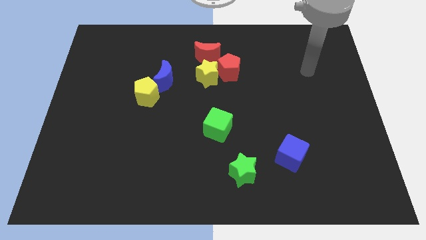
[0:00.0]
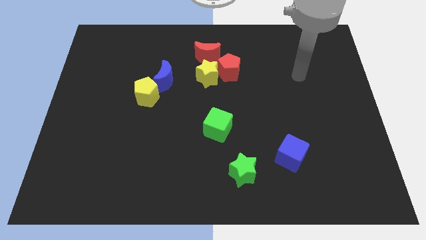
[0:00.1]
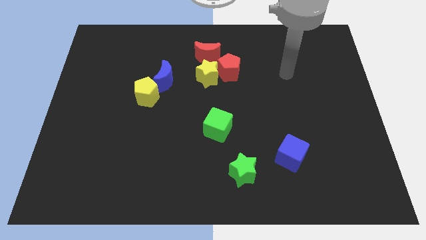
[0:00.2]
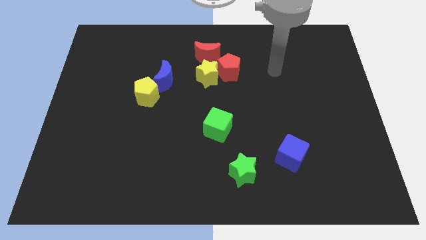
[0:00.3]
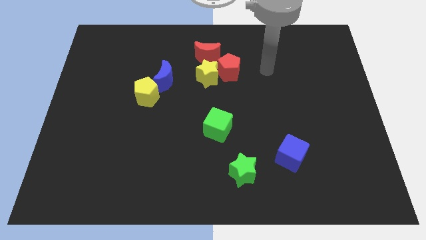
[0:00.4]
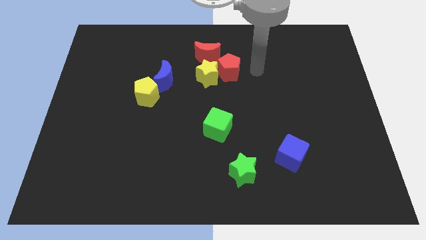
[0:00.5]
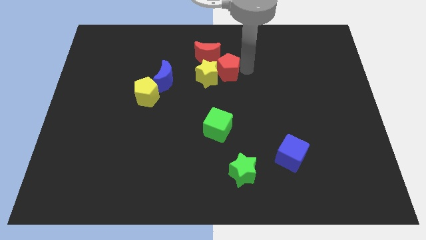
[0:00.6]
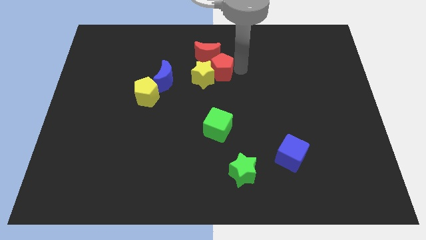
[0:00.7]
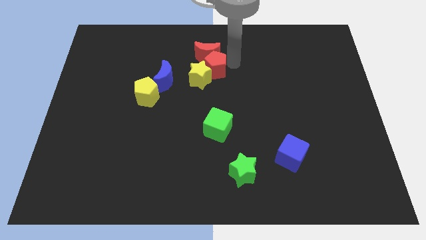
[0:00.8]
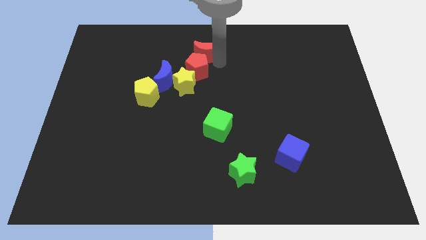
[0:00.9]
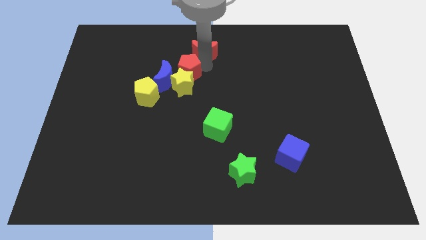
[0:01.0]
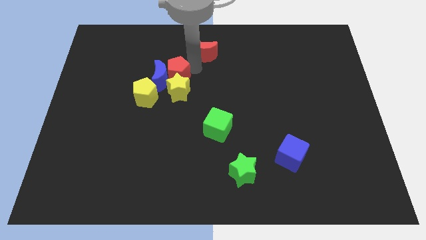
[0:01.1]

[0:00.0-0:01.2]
separate the yellow star from the red pentagon and red moon

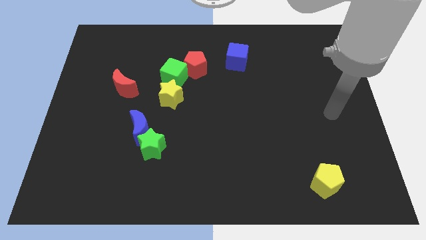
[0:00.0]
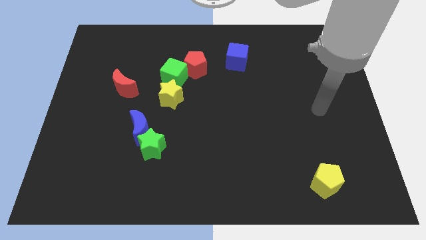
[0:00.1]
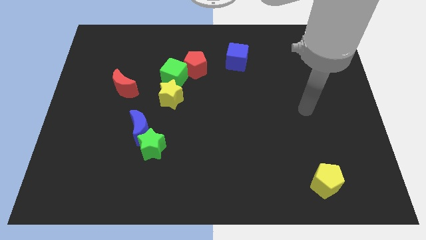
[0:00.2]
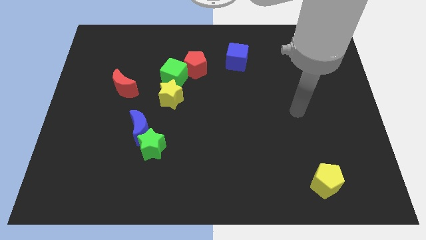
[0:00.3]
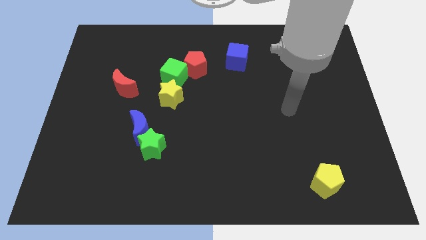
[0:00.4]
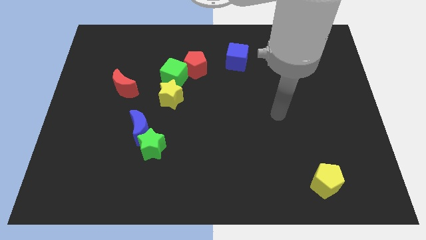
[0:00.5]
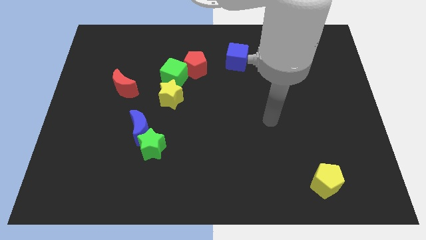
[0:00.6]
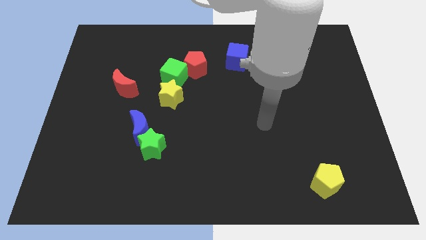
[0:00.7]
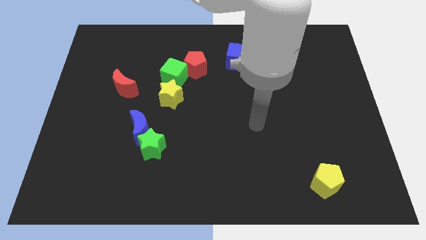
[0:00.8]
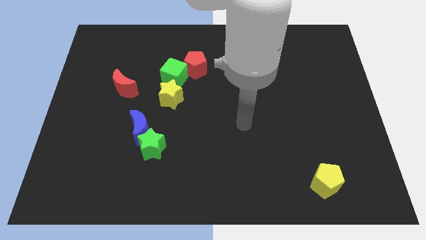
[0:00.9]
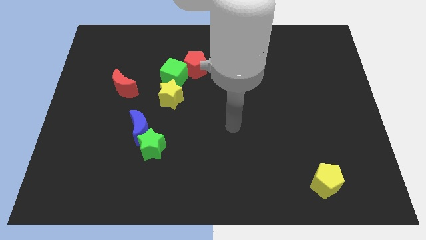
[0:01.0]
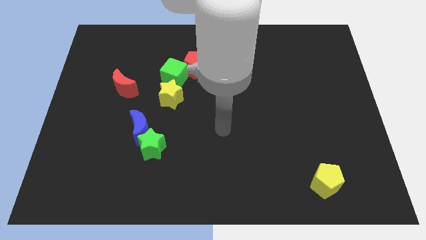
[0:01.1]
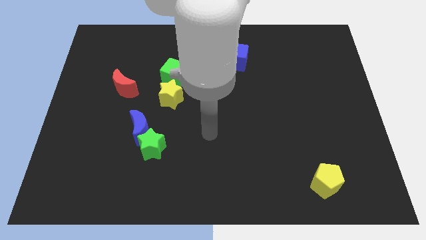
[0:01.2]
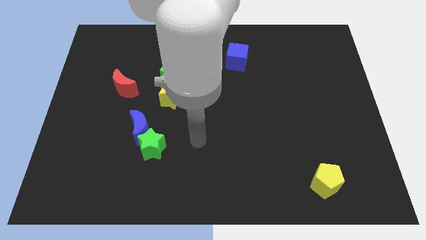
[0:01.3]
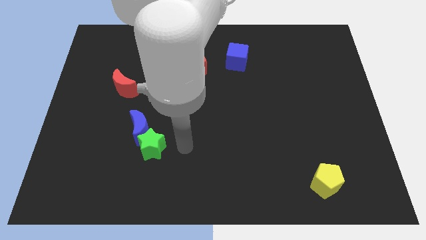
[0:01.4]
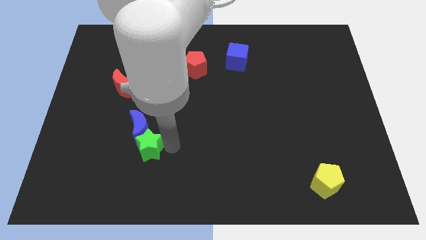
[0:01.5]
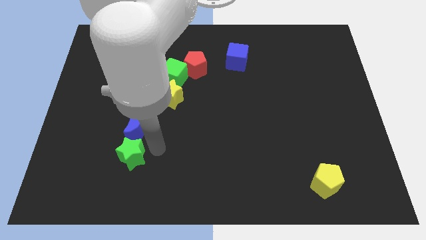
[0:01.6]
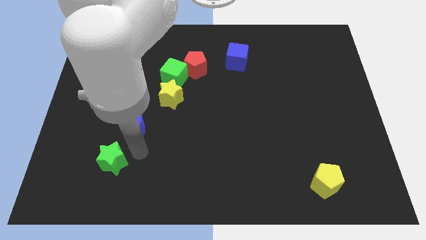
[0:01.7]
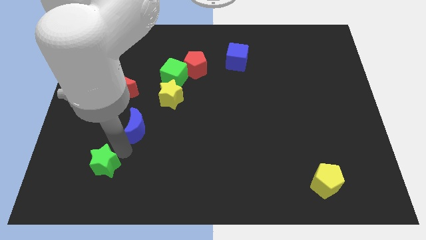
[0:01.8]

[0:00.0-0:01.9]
move the blue moon away from the green star

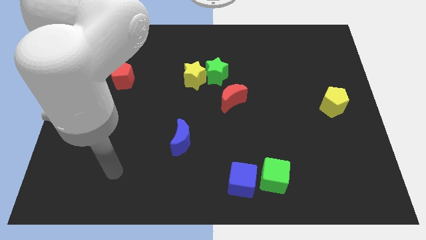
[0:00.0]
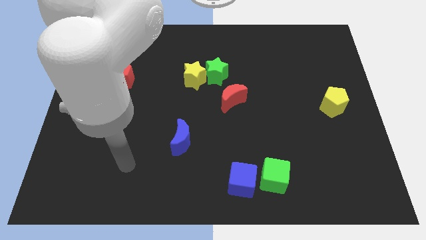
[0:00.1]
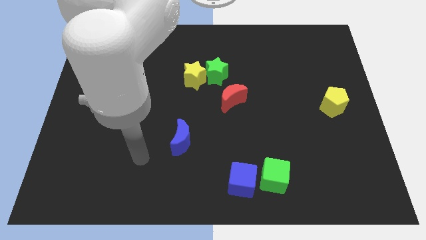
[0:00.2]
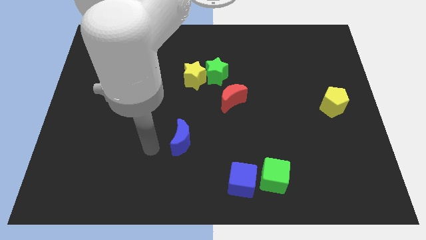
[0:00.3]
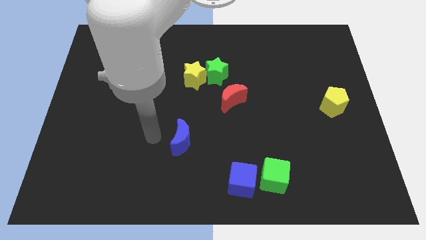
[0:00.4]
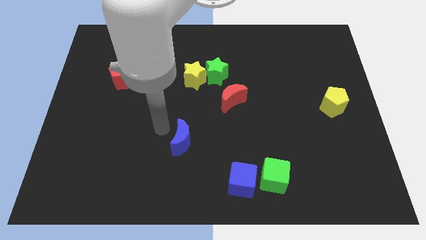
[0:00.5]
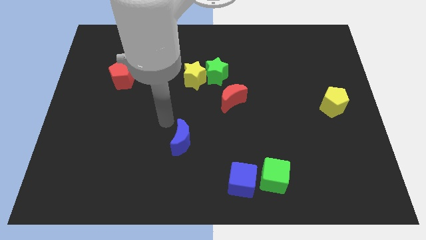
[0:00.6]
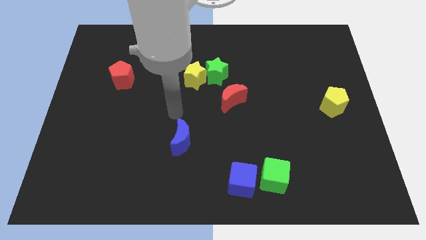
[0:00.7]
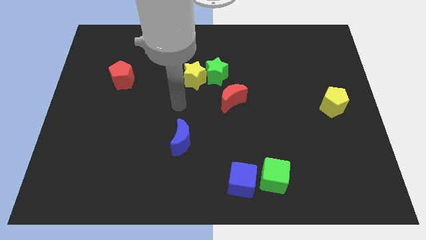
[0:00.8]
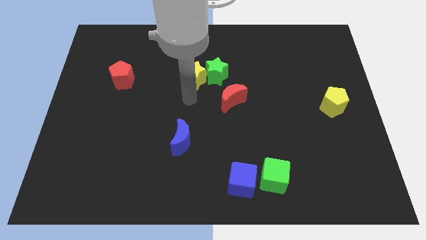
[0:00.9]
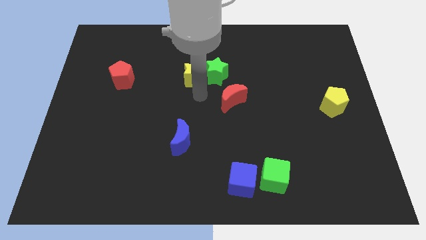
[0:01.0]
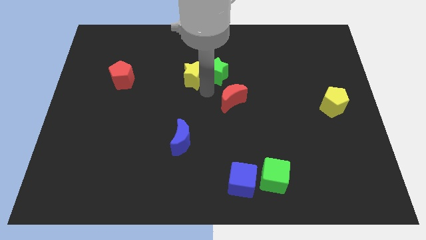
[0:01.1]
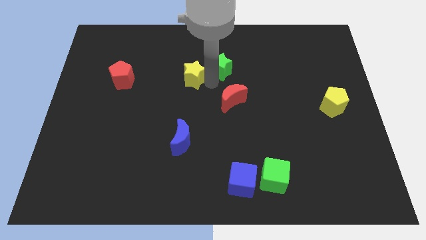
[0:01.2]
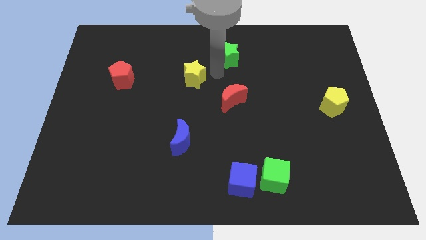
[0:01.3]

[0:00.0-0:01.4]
pull the yellow star apart from the green star

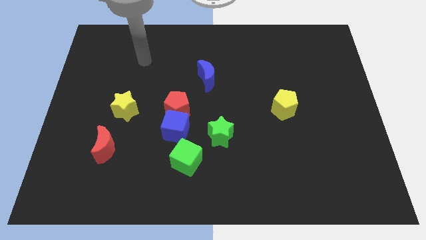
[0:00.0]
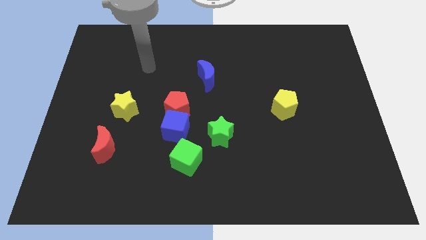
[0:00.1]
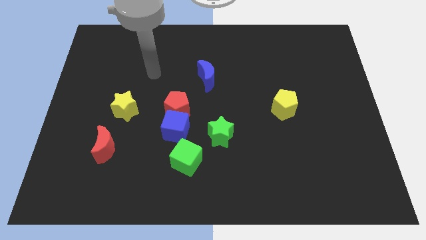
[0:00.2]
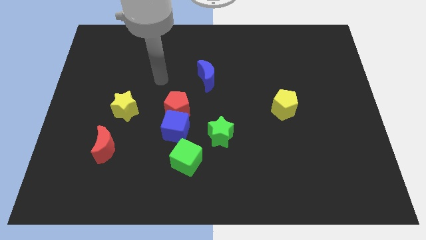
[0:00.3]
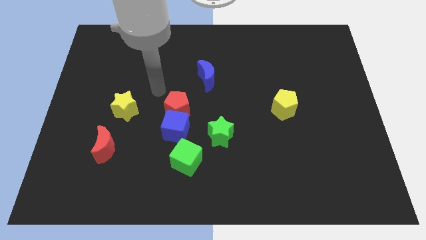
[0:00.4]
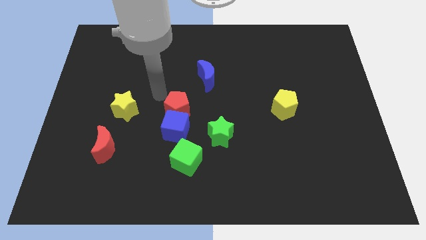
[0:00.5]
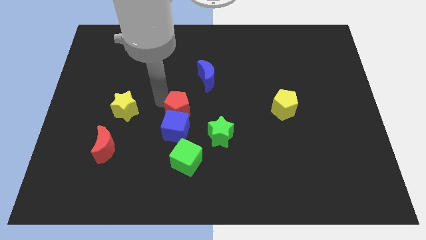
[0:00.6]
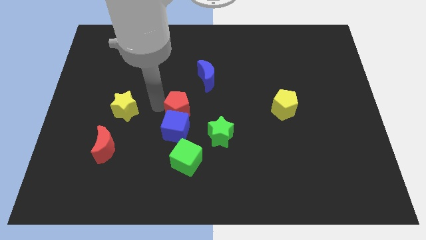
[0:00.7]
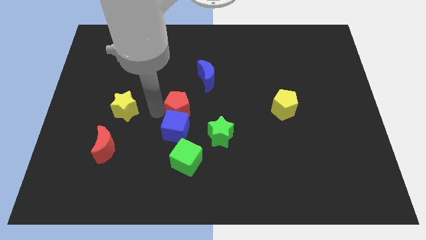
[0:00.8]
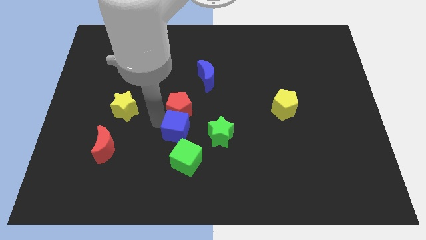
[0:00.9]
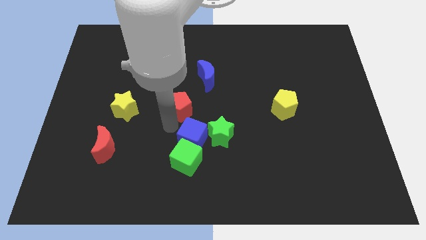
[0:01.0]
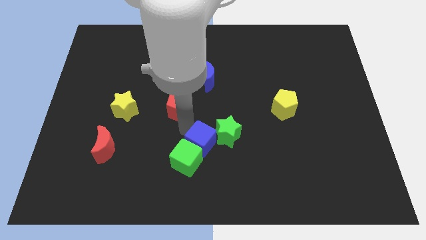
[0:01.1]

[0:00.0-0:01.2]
pull the red pentagon apart from the blue cube

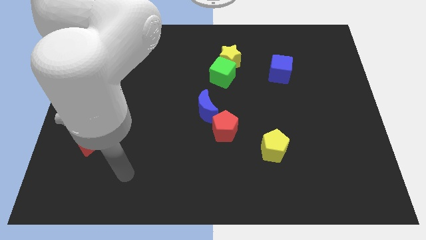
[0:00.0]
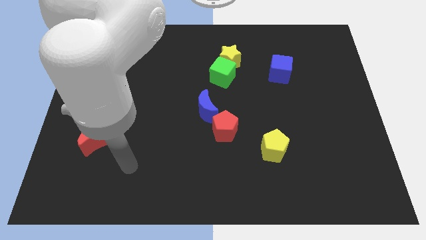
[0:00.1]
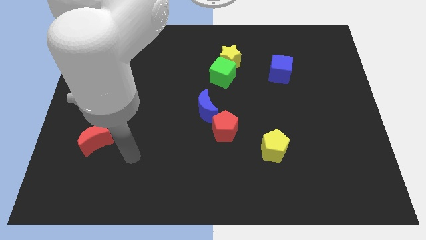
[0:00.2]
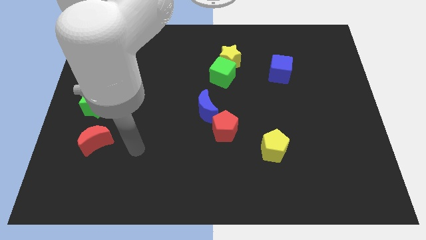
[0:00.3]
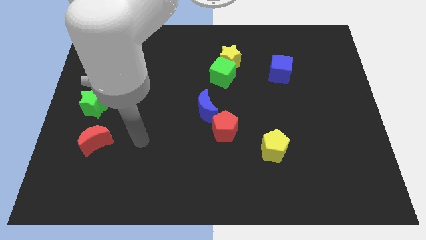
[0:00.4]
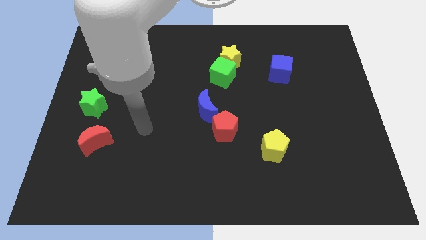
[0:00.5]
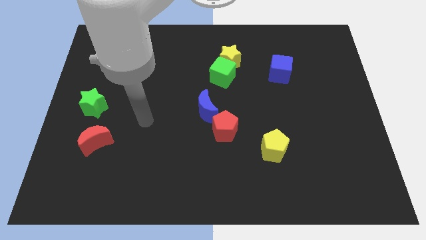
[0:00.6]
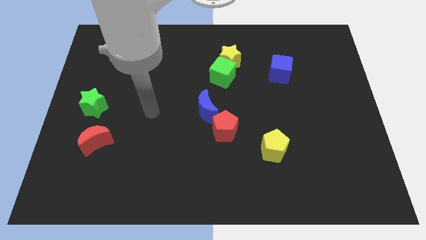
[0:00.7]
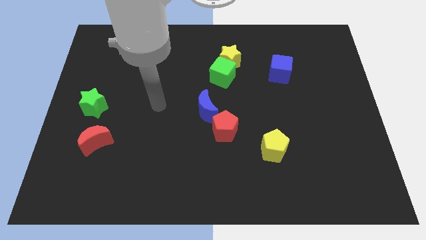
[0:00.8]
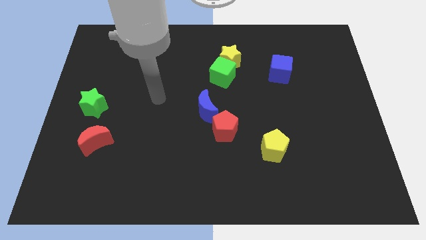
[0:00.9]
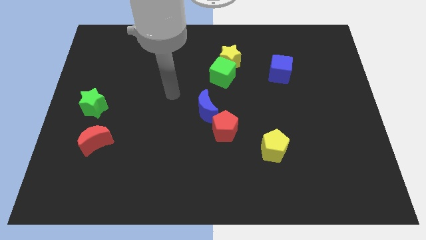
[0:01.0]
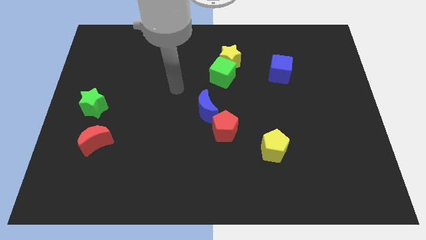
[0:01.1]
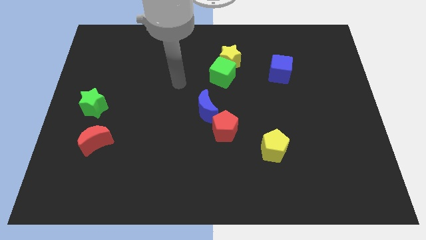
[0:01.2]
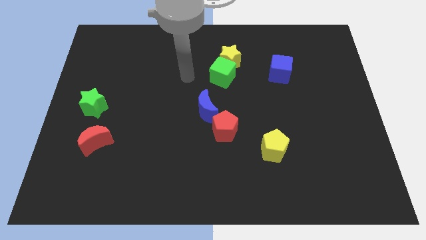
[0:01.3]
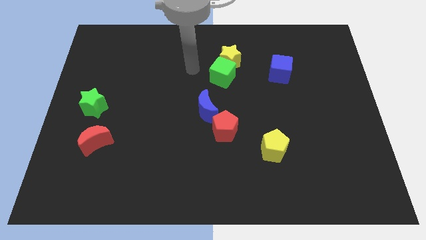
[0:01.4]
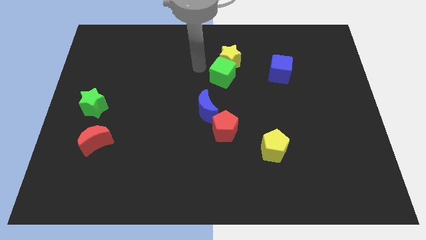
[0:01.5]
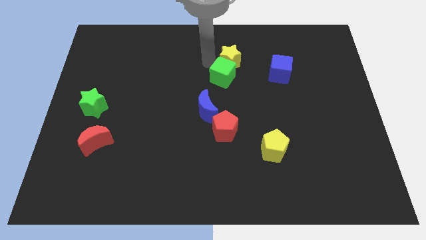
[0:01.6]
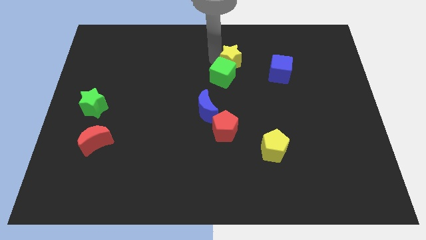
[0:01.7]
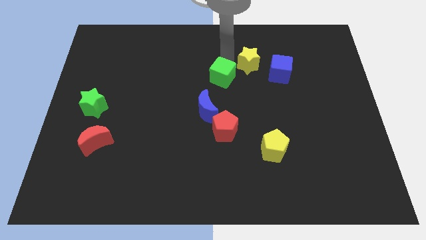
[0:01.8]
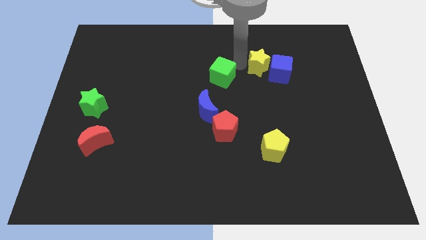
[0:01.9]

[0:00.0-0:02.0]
pull the green cube apart from the yellow star

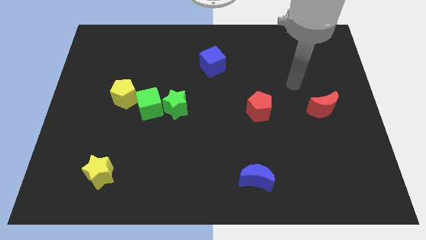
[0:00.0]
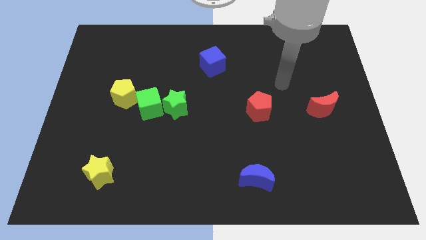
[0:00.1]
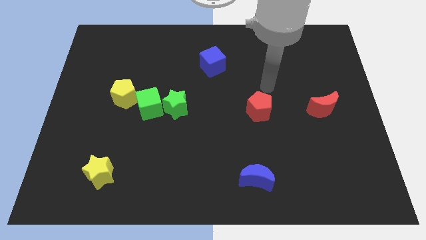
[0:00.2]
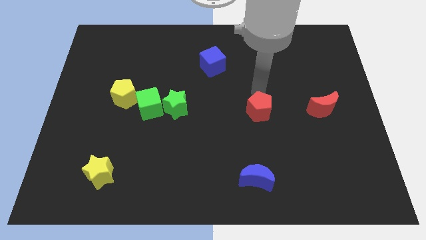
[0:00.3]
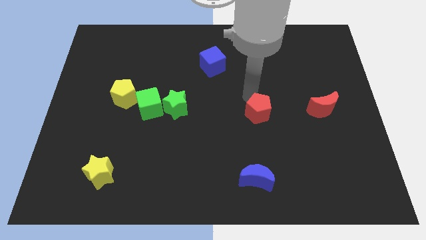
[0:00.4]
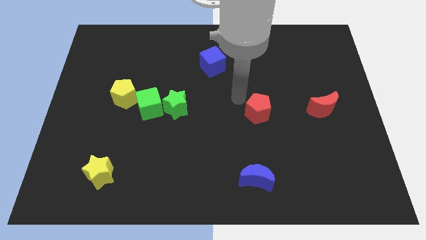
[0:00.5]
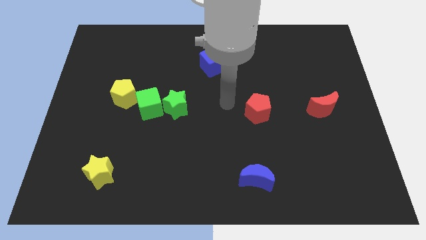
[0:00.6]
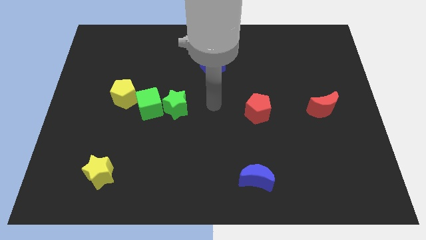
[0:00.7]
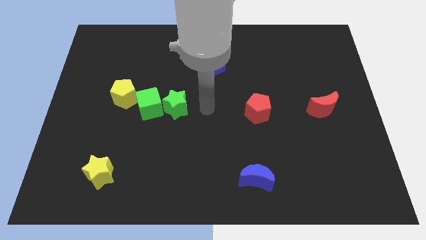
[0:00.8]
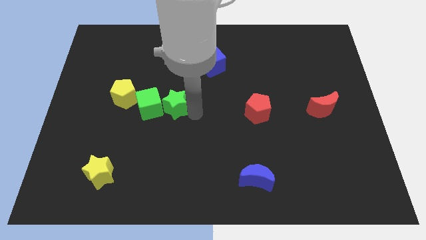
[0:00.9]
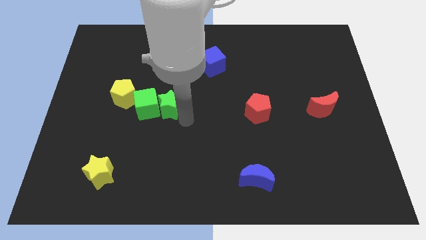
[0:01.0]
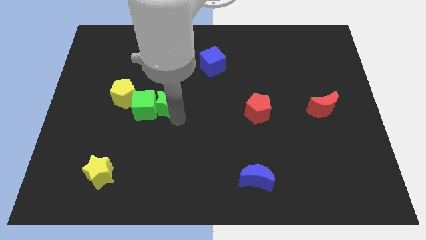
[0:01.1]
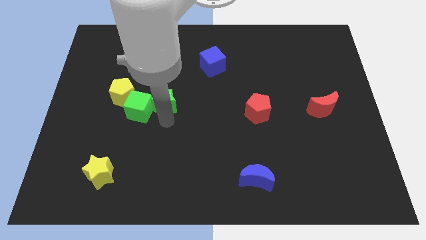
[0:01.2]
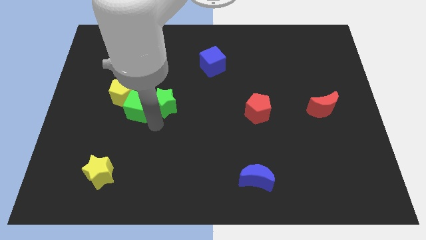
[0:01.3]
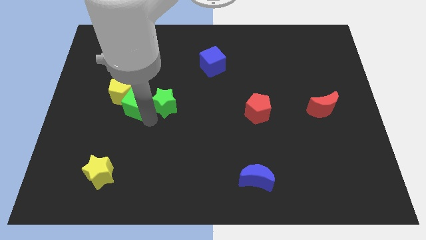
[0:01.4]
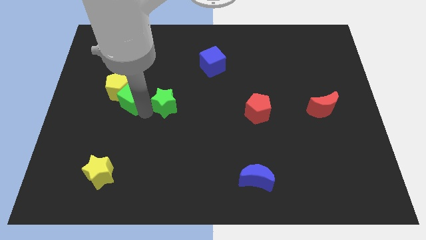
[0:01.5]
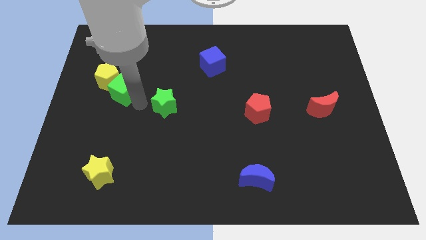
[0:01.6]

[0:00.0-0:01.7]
separate the green star from the green cube
